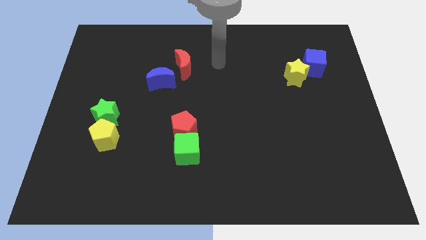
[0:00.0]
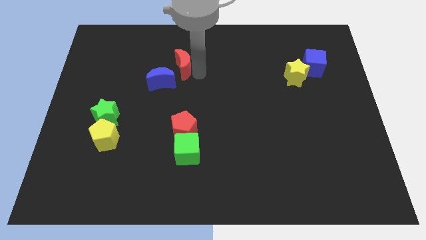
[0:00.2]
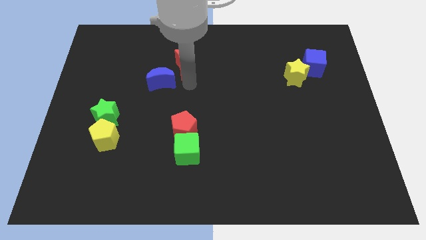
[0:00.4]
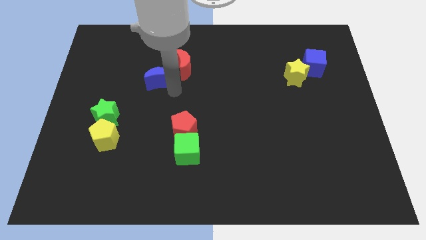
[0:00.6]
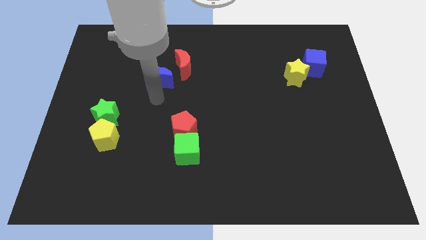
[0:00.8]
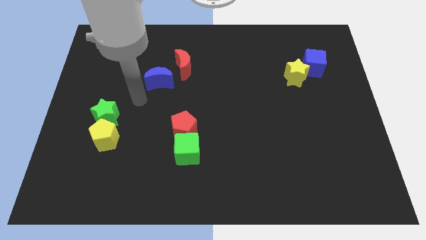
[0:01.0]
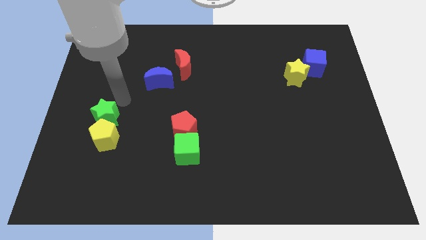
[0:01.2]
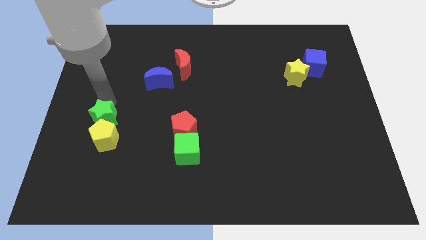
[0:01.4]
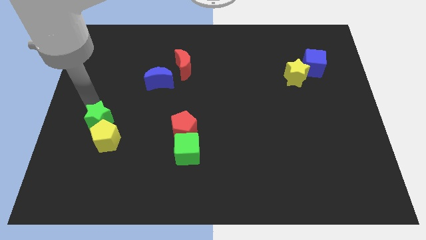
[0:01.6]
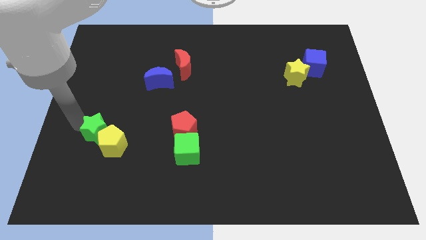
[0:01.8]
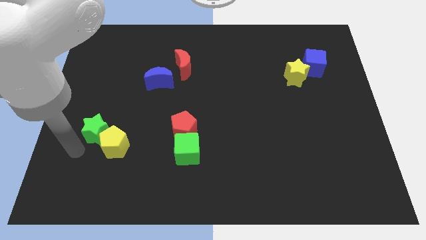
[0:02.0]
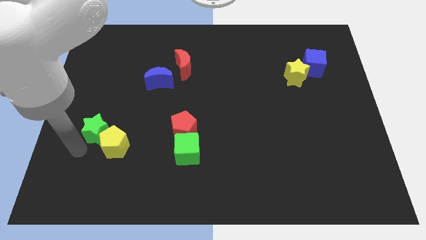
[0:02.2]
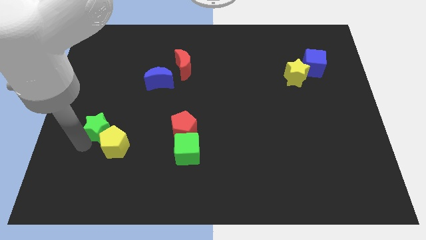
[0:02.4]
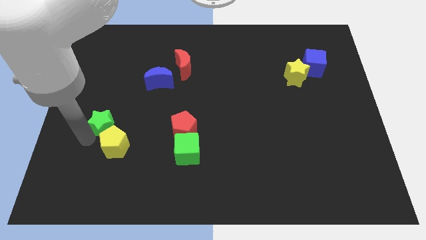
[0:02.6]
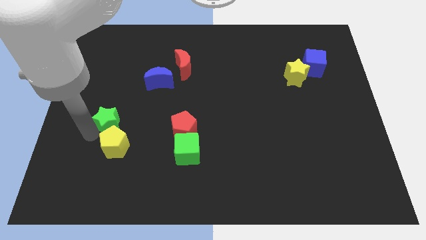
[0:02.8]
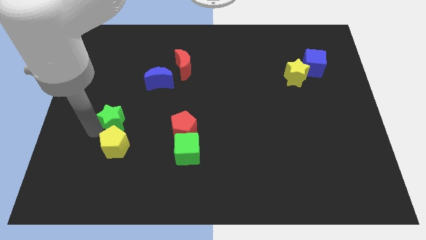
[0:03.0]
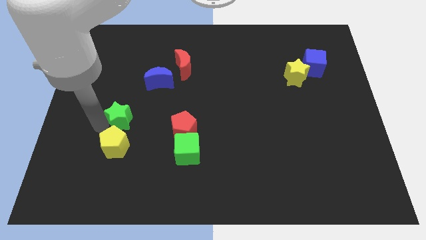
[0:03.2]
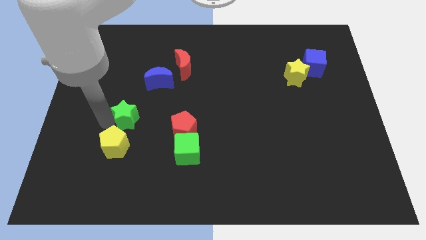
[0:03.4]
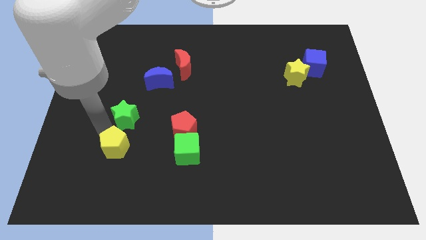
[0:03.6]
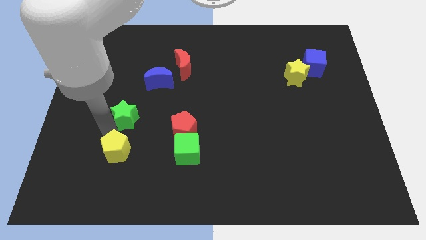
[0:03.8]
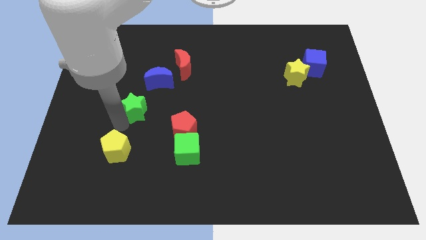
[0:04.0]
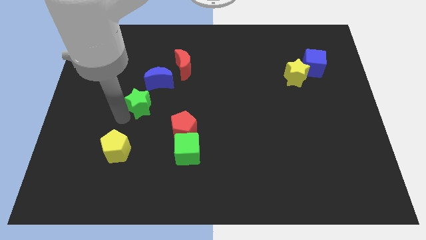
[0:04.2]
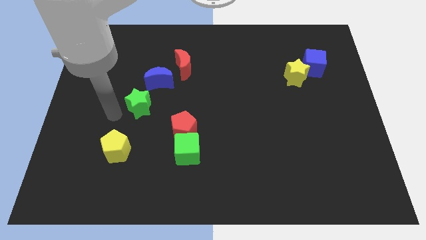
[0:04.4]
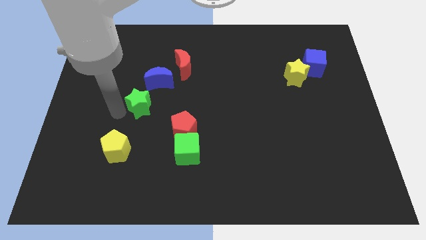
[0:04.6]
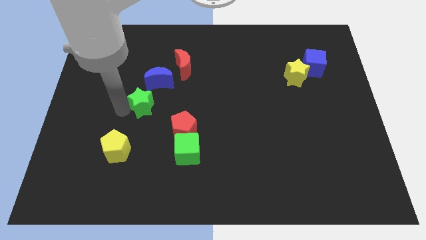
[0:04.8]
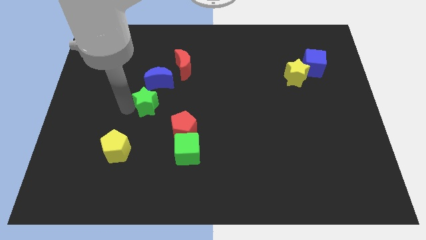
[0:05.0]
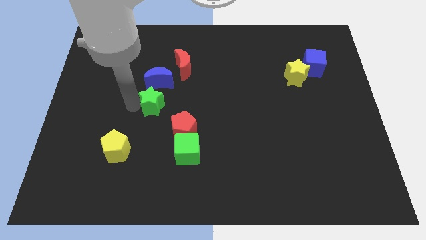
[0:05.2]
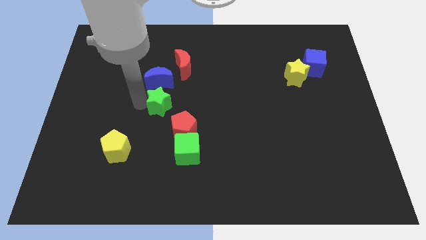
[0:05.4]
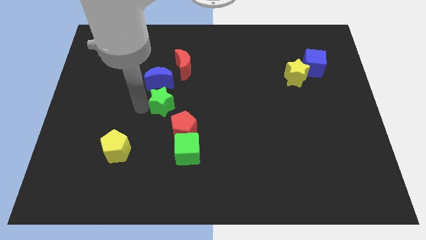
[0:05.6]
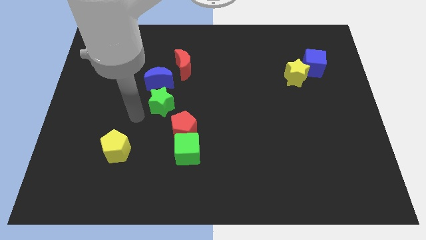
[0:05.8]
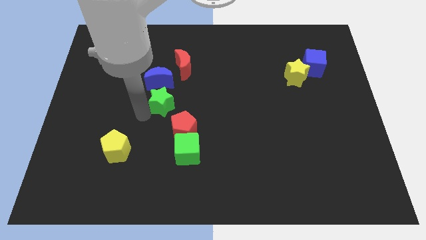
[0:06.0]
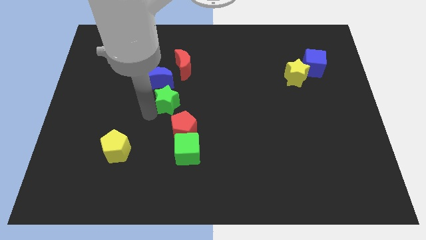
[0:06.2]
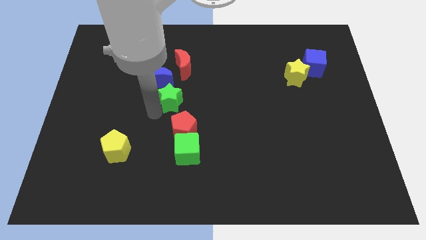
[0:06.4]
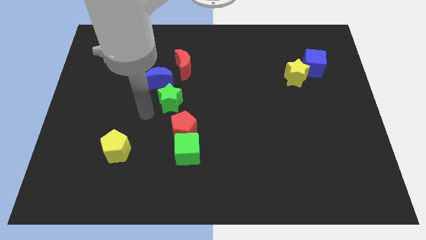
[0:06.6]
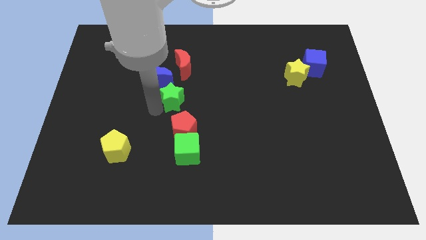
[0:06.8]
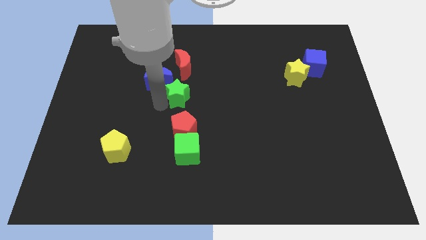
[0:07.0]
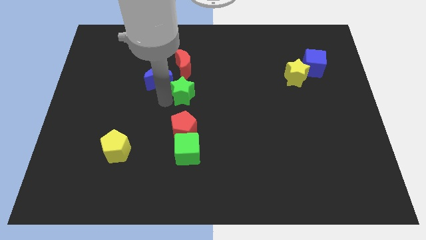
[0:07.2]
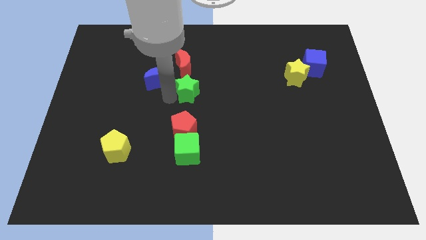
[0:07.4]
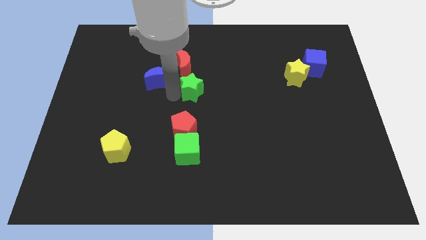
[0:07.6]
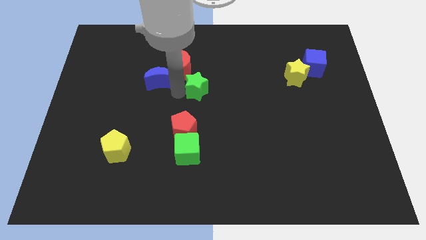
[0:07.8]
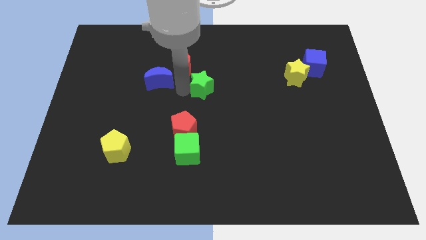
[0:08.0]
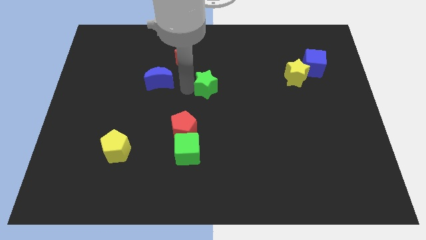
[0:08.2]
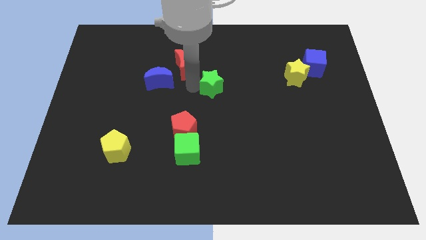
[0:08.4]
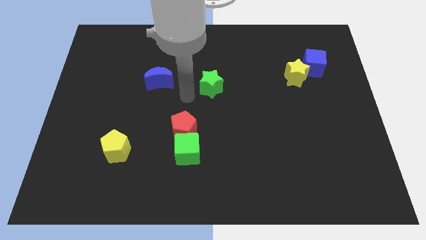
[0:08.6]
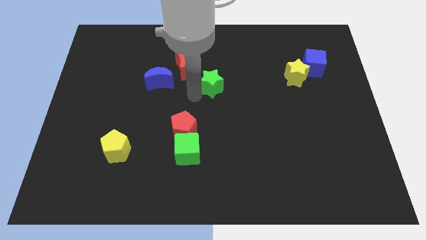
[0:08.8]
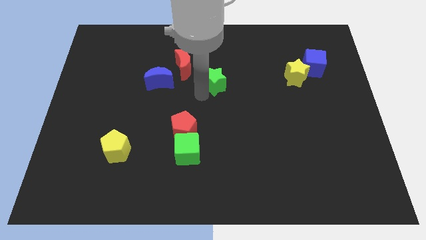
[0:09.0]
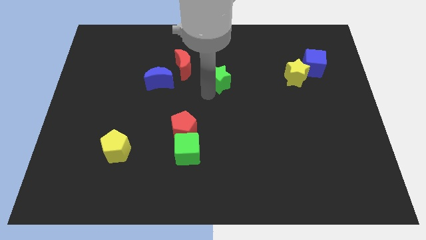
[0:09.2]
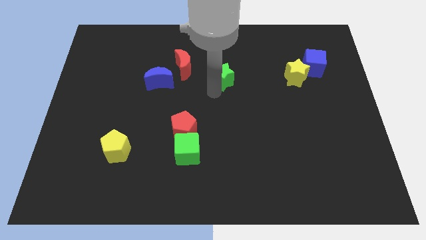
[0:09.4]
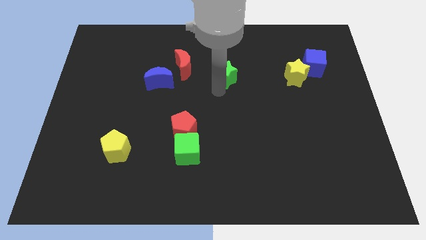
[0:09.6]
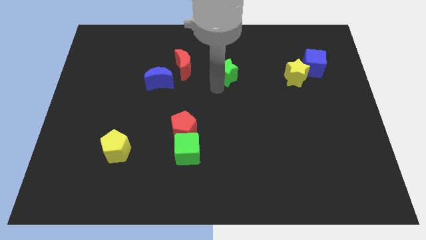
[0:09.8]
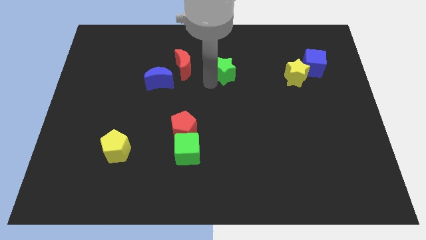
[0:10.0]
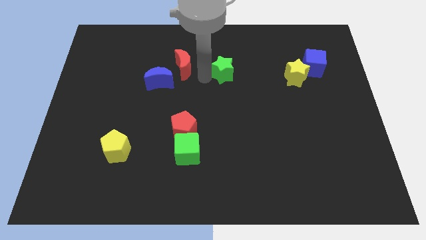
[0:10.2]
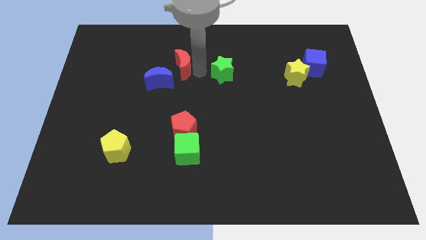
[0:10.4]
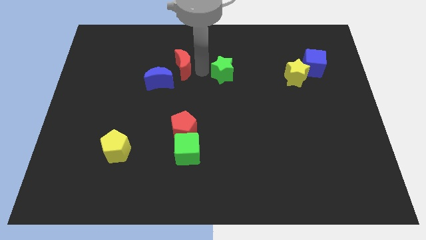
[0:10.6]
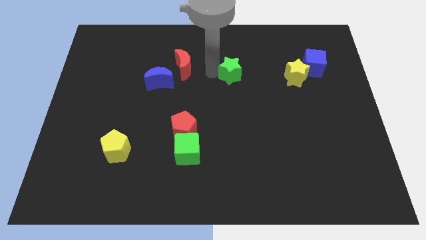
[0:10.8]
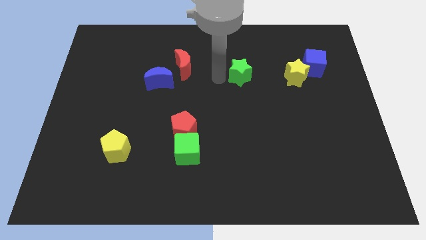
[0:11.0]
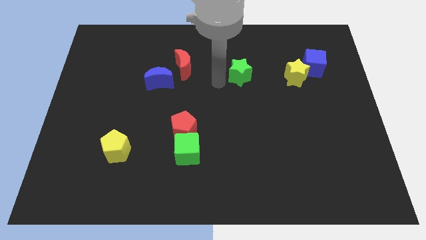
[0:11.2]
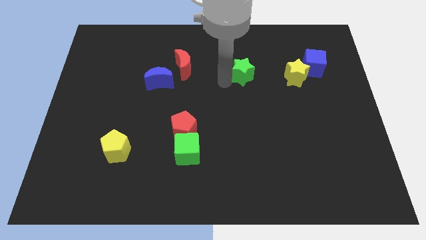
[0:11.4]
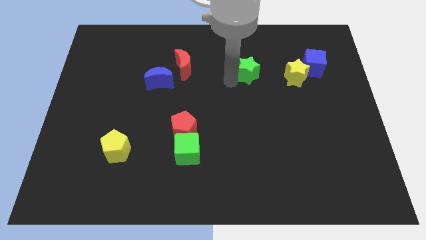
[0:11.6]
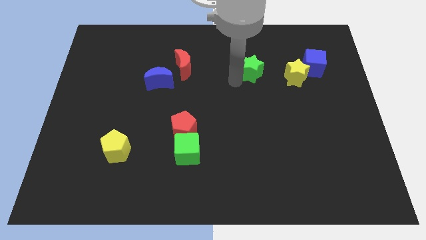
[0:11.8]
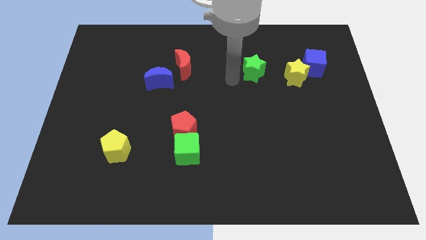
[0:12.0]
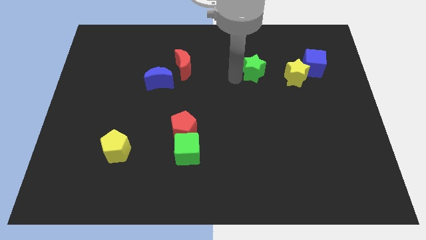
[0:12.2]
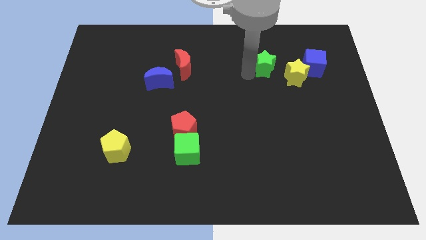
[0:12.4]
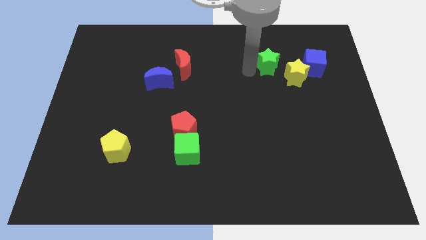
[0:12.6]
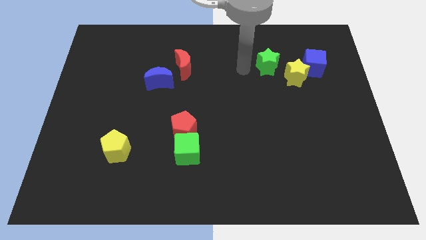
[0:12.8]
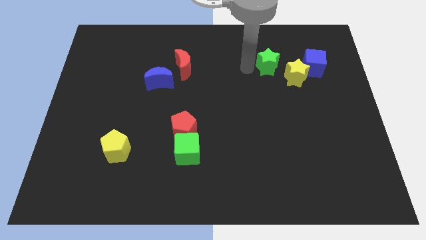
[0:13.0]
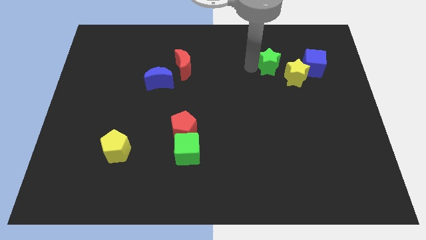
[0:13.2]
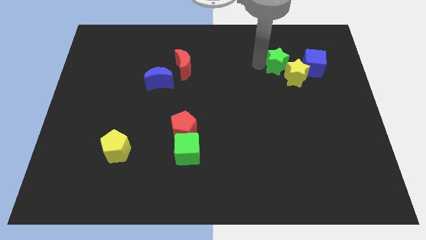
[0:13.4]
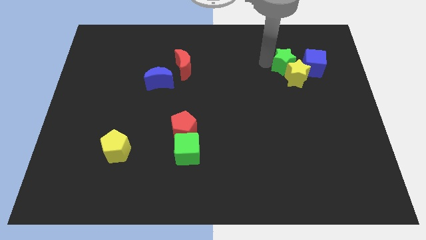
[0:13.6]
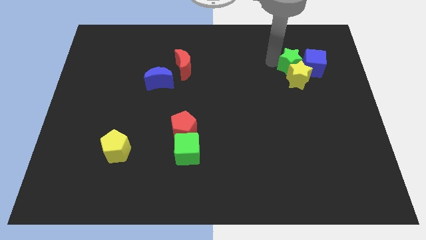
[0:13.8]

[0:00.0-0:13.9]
push the green star next to the blue cube
